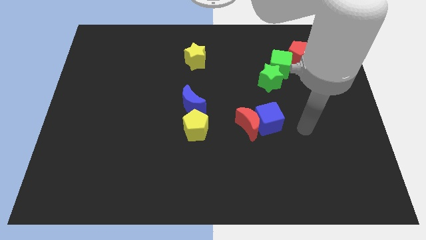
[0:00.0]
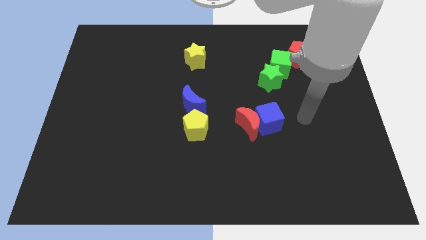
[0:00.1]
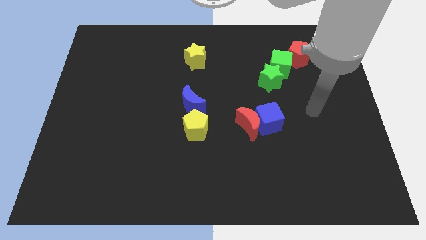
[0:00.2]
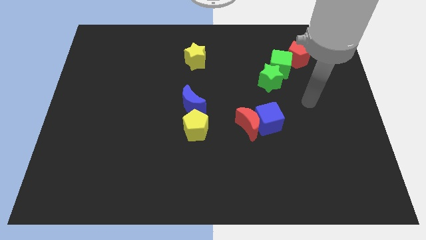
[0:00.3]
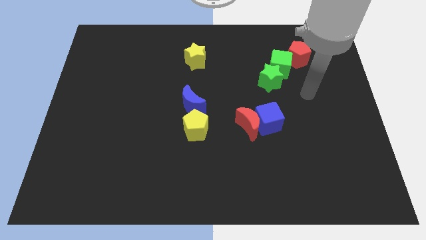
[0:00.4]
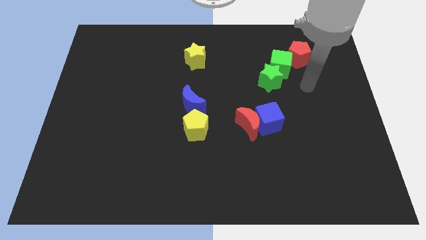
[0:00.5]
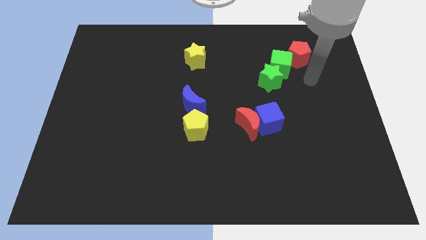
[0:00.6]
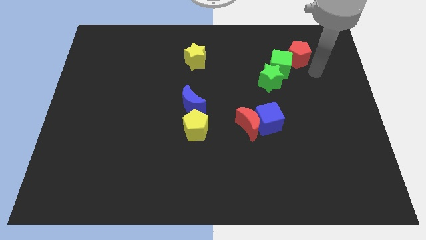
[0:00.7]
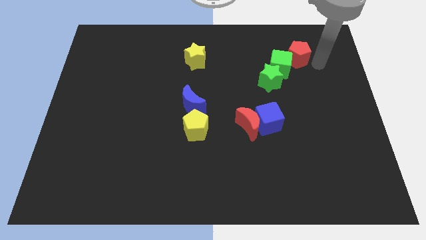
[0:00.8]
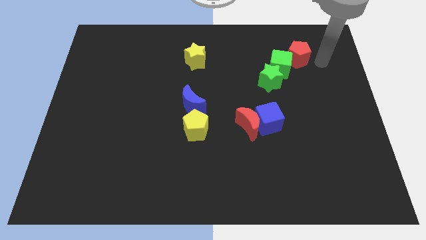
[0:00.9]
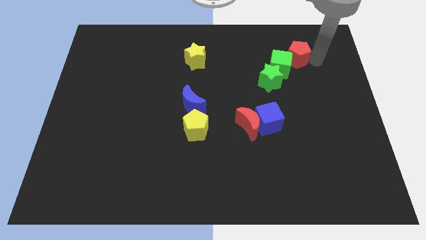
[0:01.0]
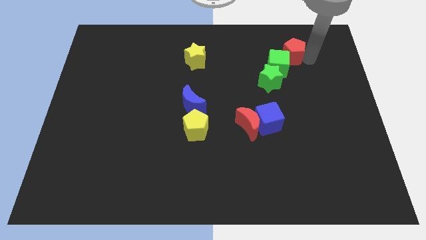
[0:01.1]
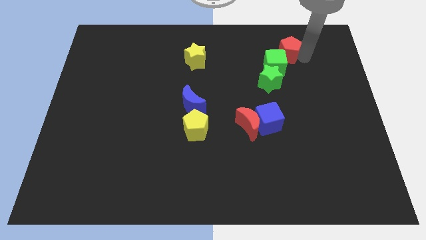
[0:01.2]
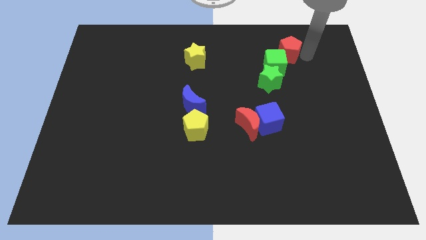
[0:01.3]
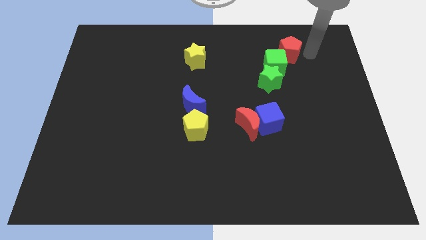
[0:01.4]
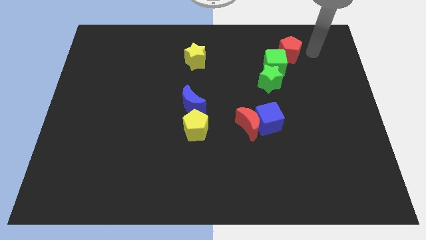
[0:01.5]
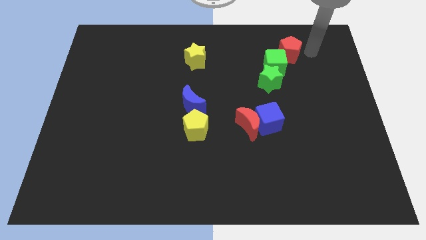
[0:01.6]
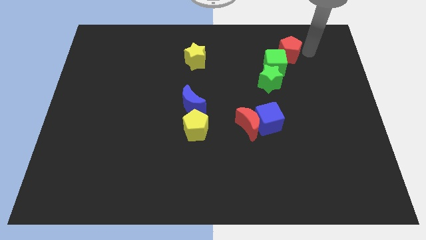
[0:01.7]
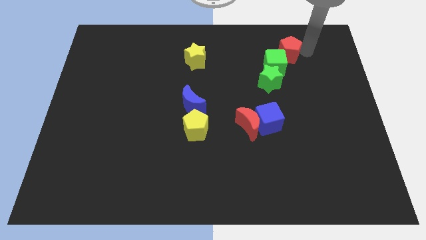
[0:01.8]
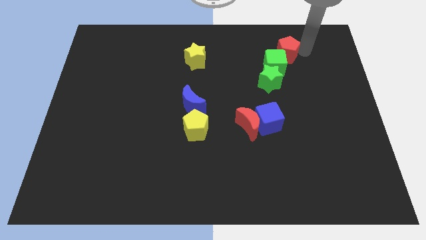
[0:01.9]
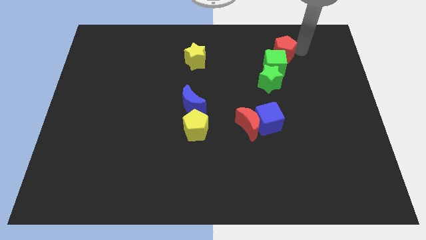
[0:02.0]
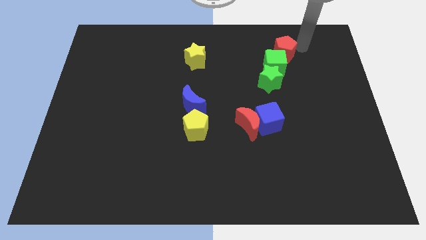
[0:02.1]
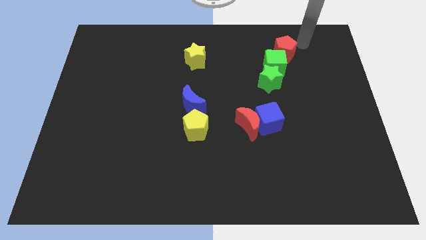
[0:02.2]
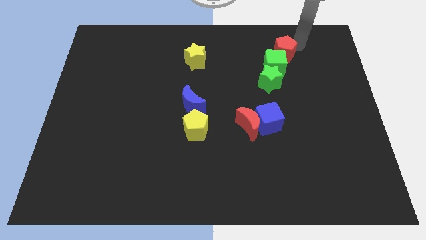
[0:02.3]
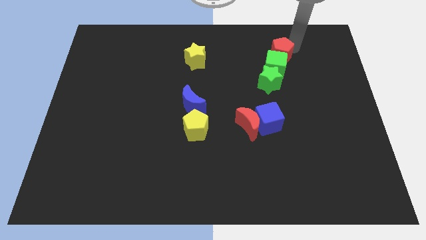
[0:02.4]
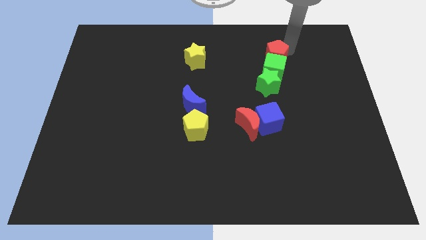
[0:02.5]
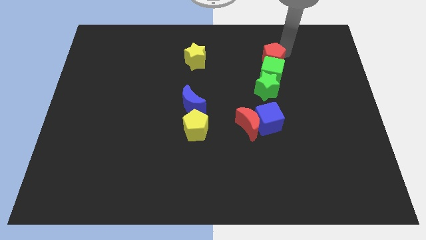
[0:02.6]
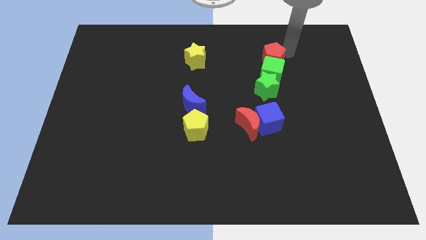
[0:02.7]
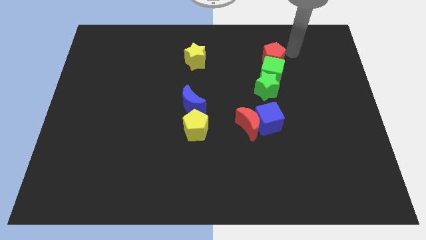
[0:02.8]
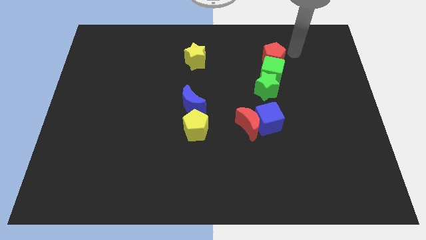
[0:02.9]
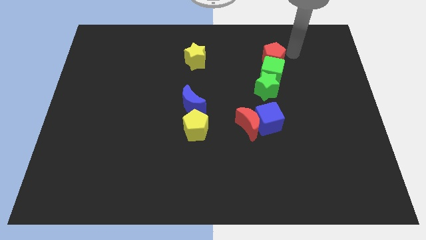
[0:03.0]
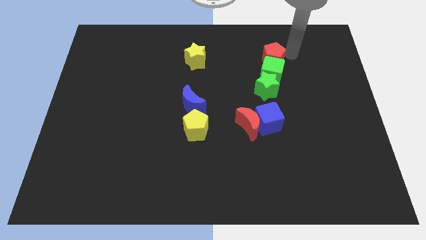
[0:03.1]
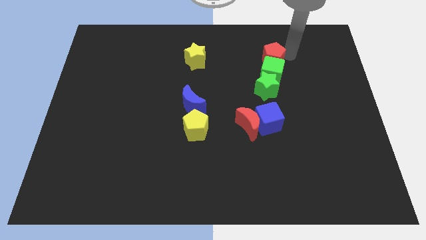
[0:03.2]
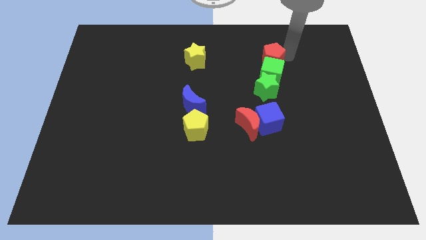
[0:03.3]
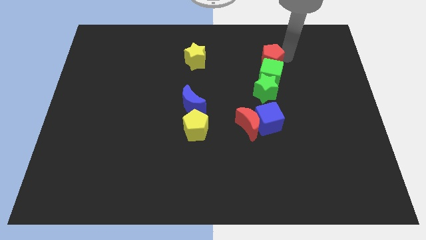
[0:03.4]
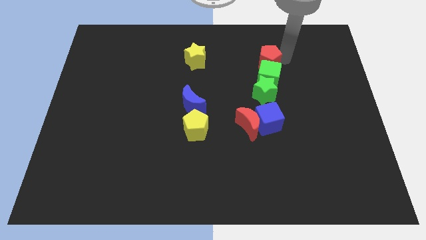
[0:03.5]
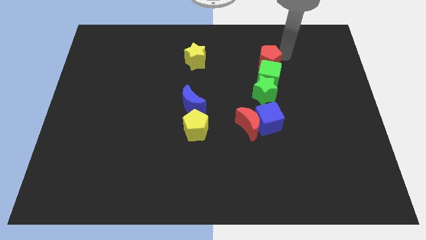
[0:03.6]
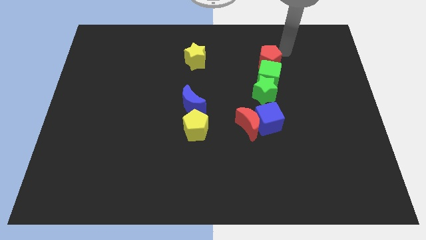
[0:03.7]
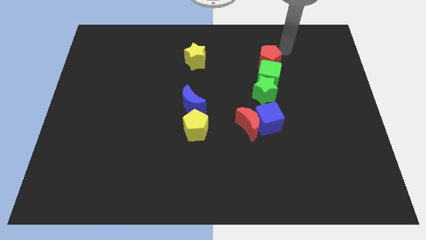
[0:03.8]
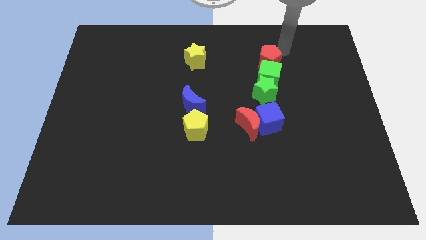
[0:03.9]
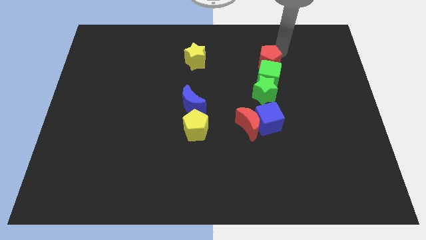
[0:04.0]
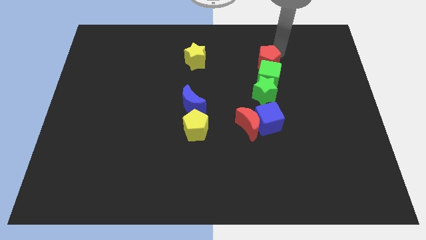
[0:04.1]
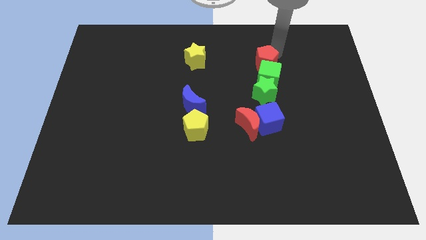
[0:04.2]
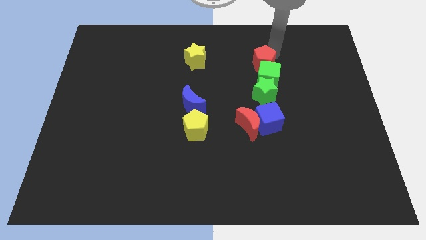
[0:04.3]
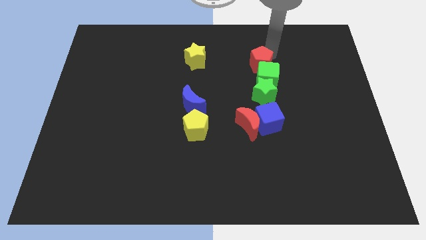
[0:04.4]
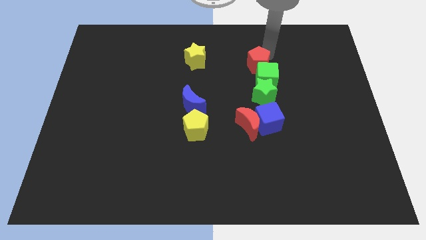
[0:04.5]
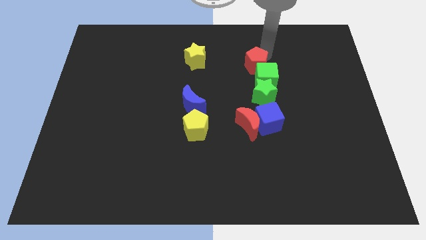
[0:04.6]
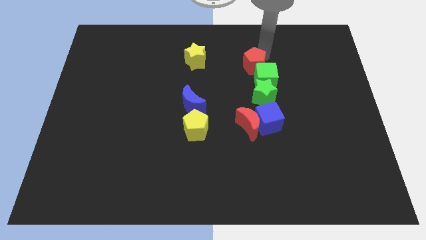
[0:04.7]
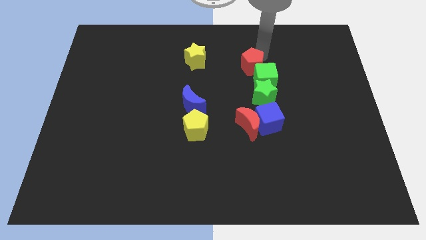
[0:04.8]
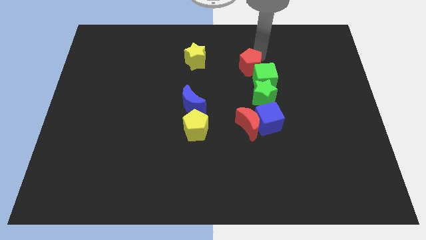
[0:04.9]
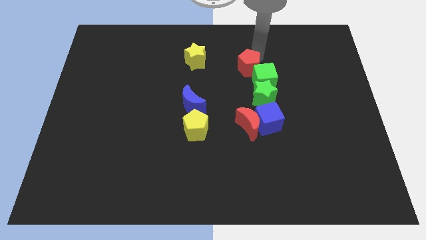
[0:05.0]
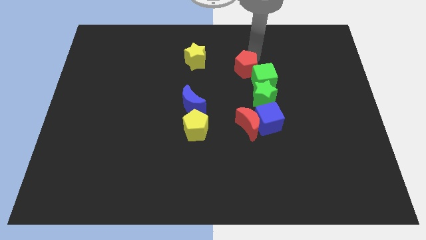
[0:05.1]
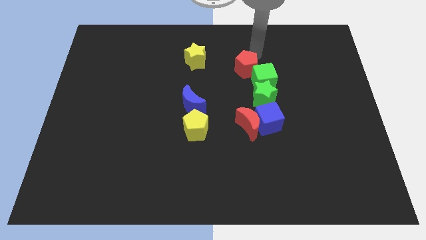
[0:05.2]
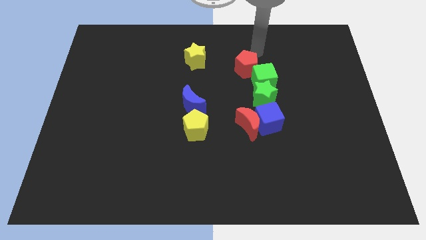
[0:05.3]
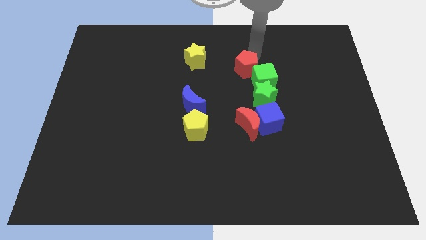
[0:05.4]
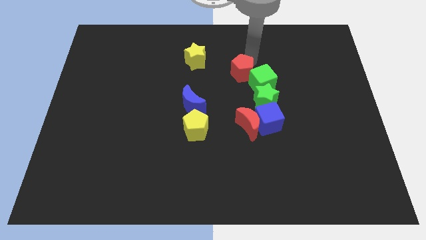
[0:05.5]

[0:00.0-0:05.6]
push the red pentagon to the center of the board
